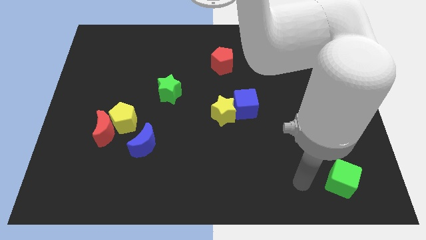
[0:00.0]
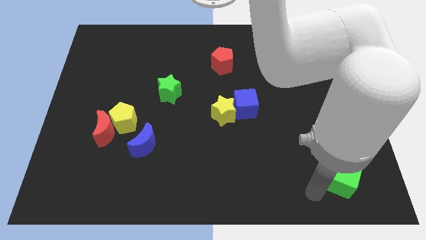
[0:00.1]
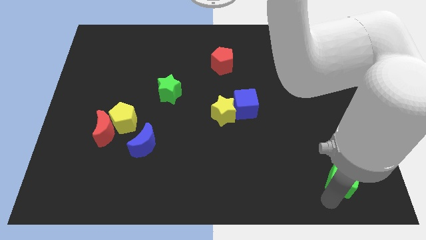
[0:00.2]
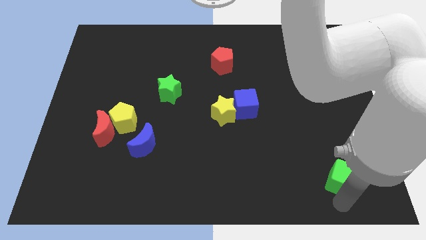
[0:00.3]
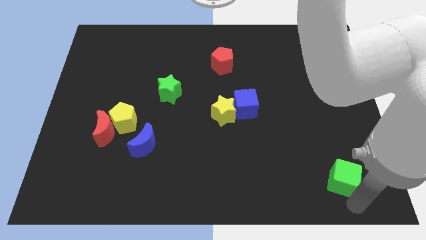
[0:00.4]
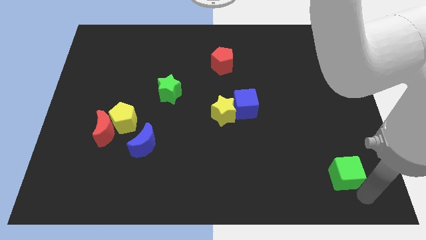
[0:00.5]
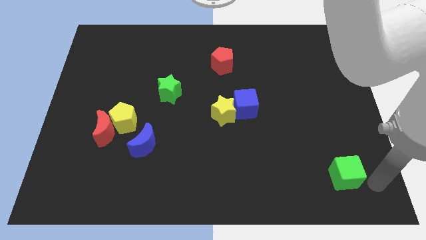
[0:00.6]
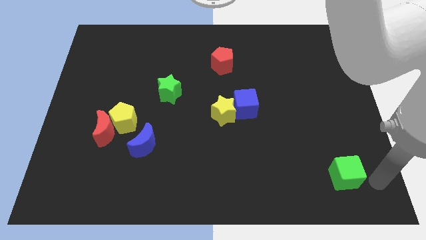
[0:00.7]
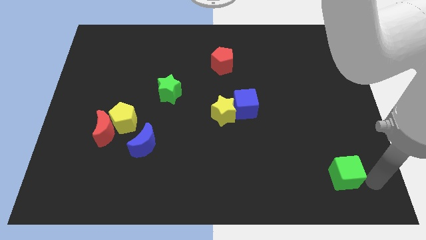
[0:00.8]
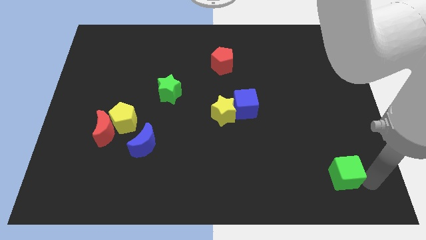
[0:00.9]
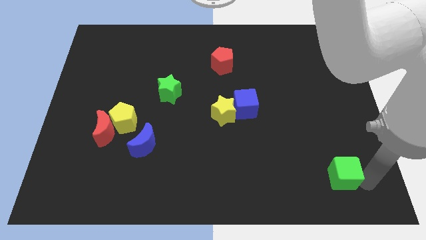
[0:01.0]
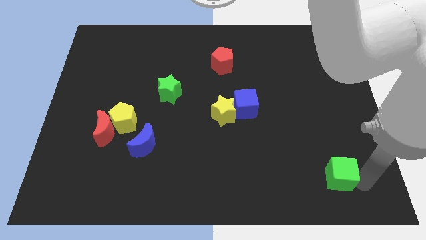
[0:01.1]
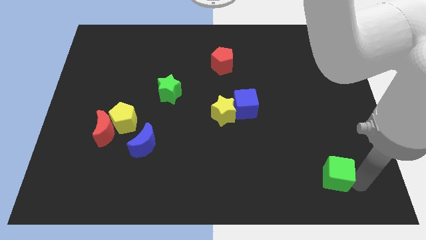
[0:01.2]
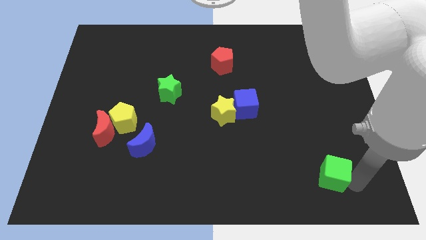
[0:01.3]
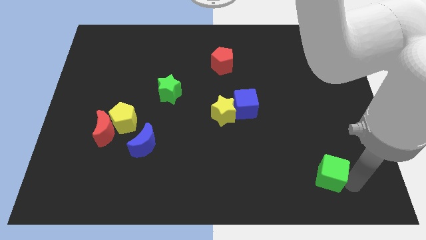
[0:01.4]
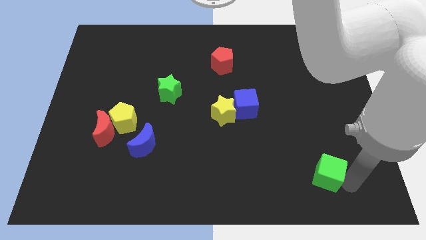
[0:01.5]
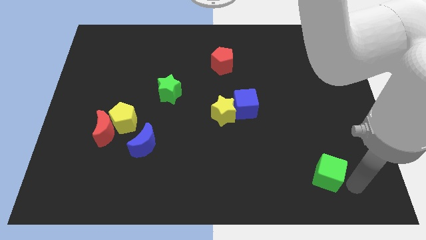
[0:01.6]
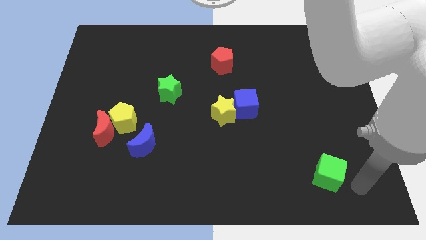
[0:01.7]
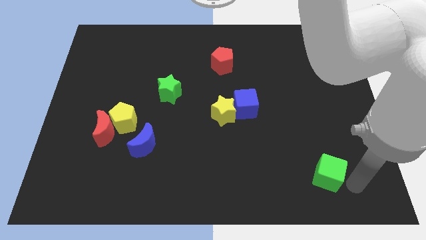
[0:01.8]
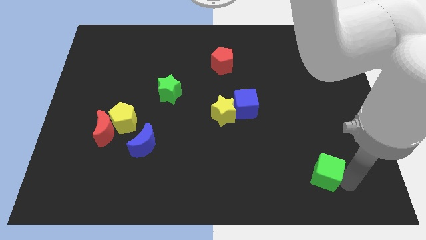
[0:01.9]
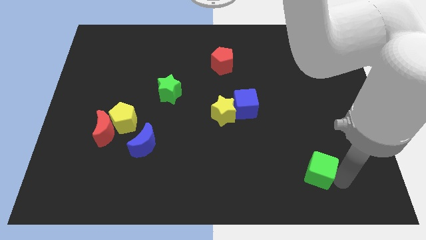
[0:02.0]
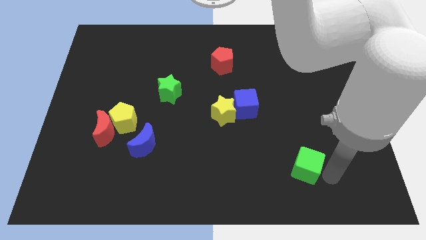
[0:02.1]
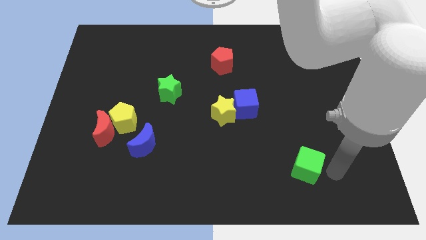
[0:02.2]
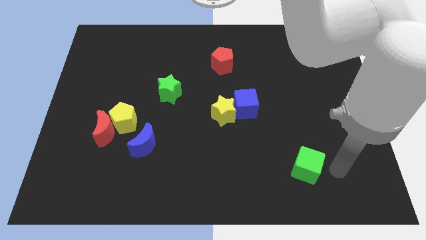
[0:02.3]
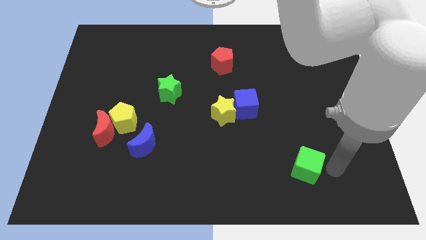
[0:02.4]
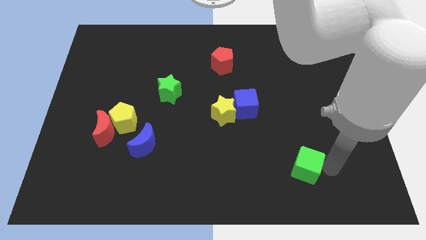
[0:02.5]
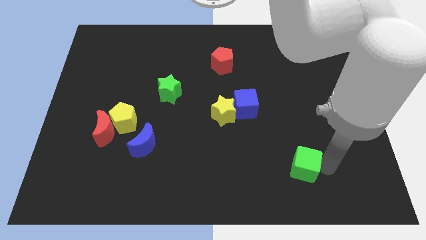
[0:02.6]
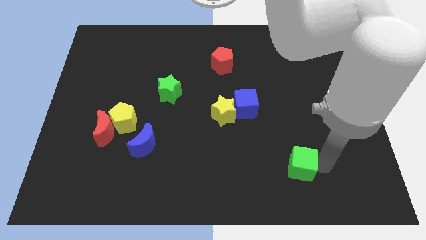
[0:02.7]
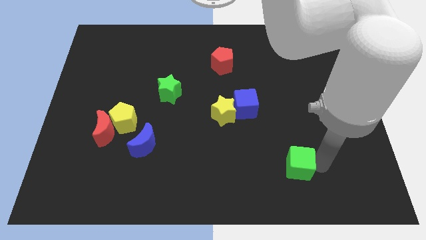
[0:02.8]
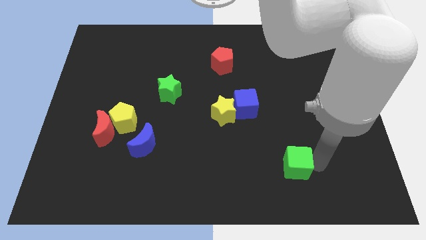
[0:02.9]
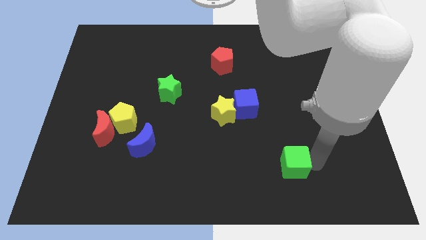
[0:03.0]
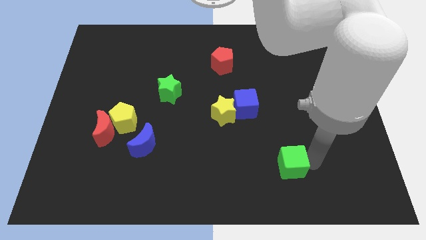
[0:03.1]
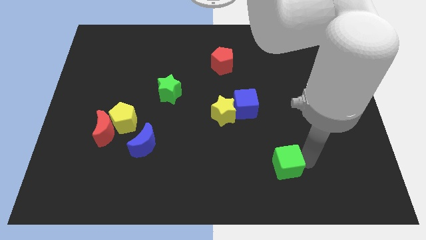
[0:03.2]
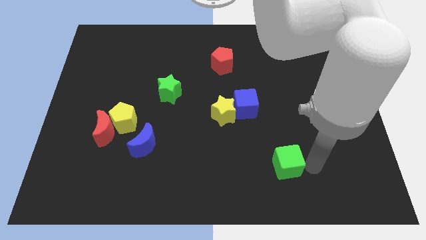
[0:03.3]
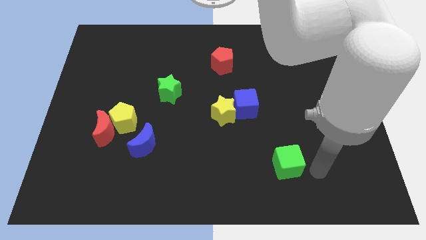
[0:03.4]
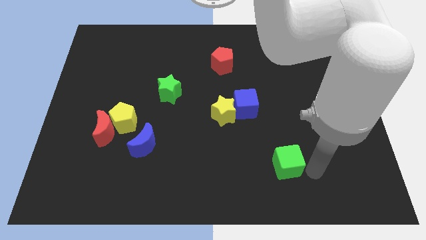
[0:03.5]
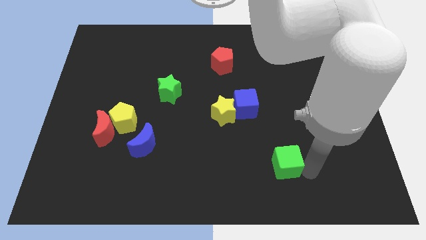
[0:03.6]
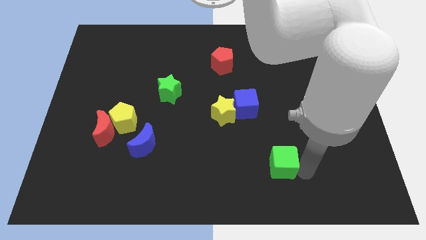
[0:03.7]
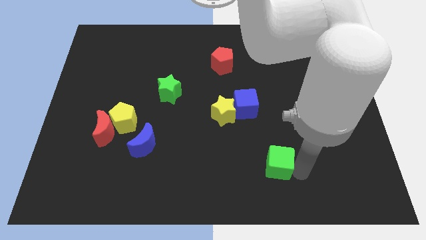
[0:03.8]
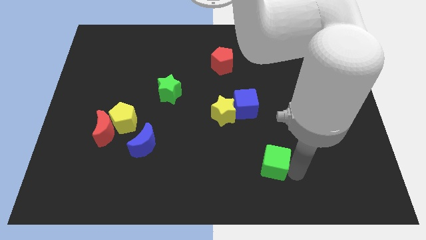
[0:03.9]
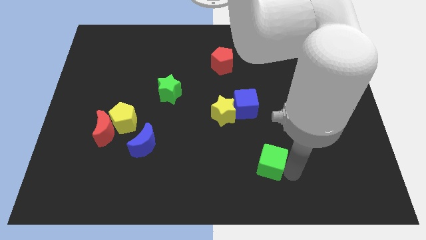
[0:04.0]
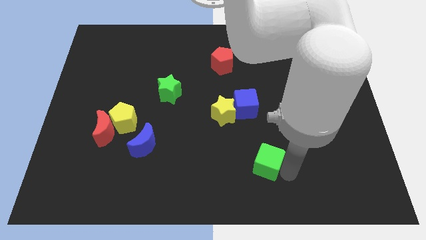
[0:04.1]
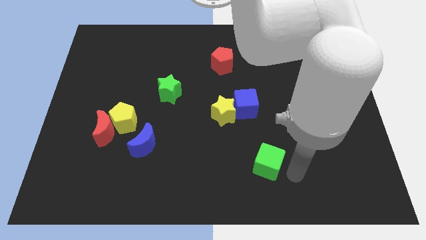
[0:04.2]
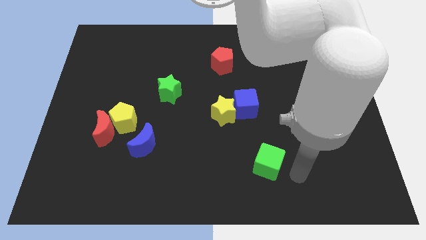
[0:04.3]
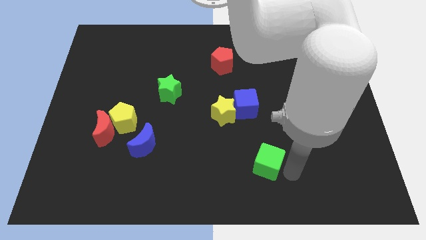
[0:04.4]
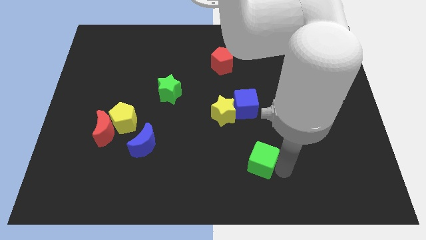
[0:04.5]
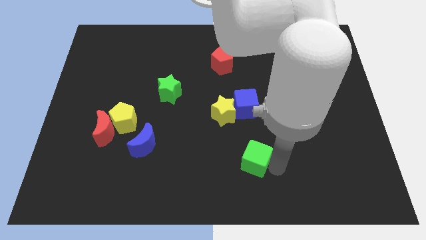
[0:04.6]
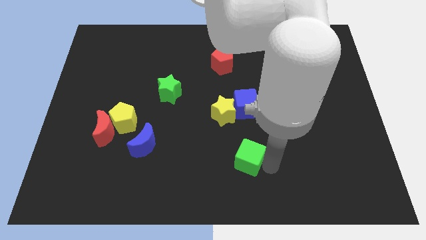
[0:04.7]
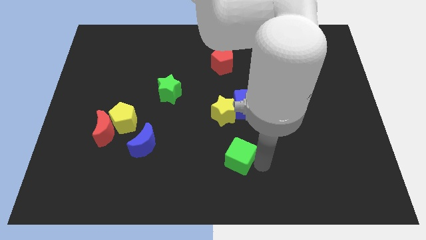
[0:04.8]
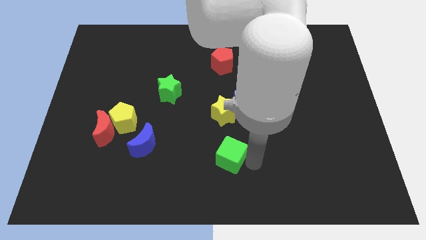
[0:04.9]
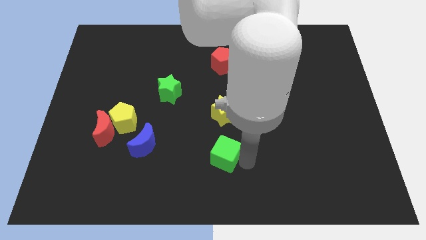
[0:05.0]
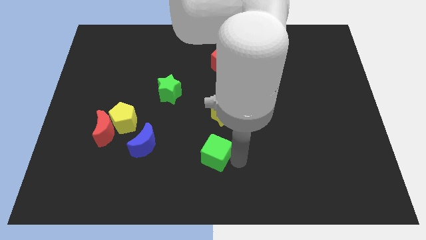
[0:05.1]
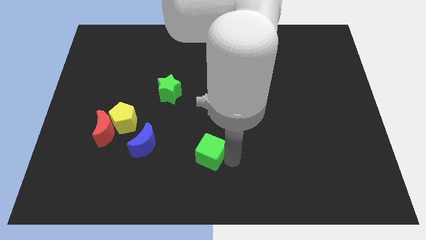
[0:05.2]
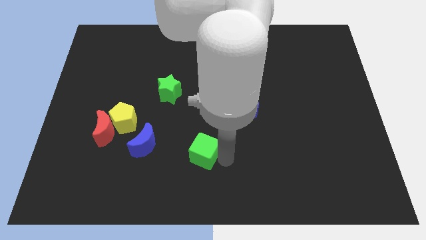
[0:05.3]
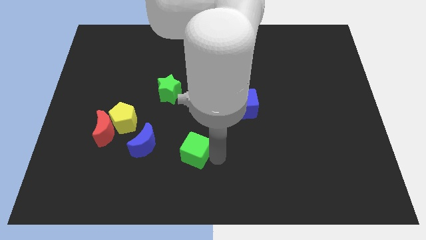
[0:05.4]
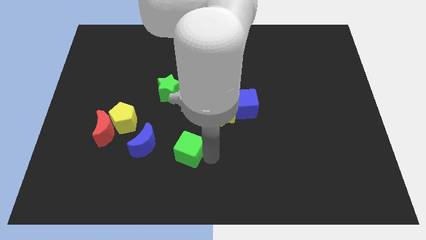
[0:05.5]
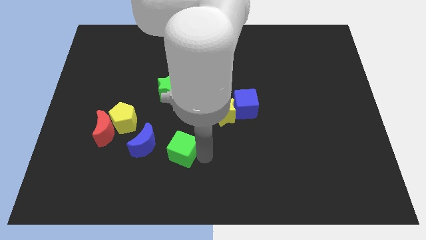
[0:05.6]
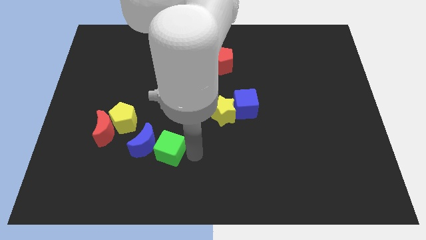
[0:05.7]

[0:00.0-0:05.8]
put the green cube close to the blue moon

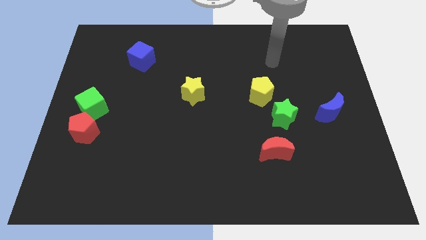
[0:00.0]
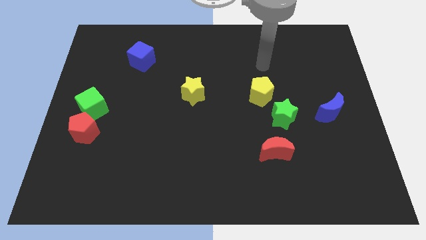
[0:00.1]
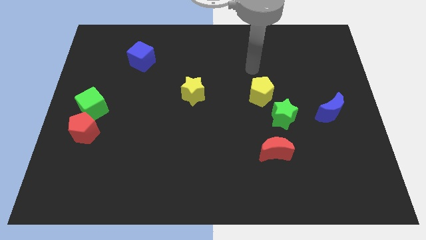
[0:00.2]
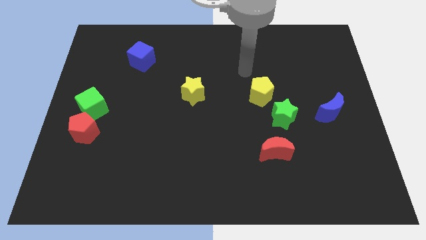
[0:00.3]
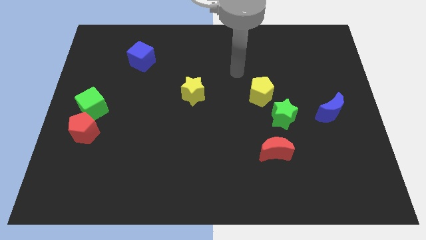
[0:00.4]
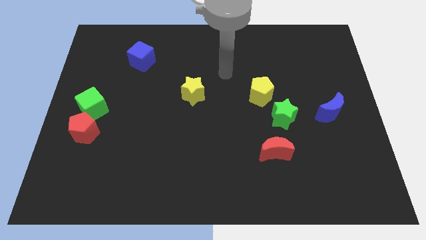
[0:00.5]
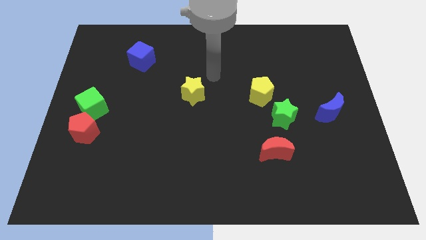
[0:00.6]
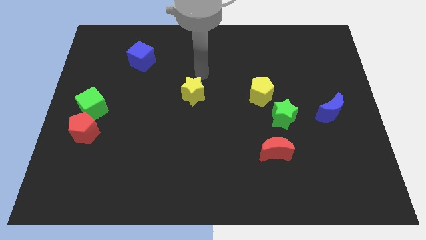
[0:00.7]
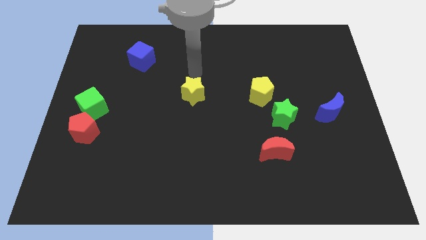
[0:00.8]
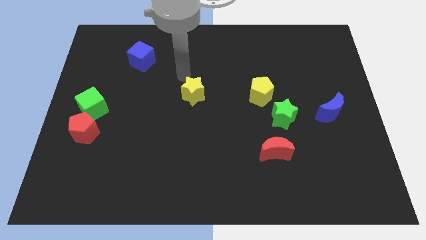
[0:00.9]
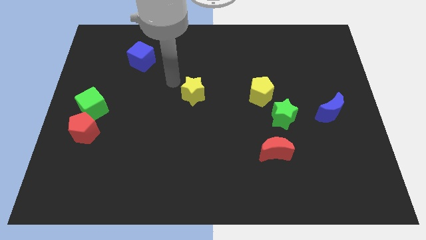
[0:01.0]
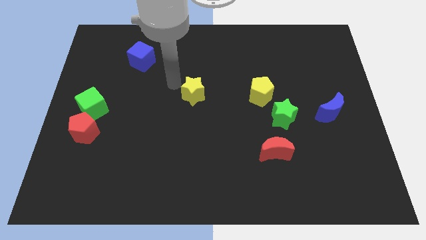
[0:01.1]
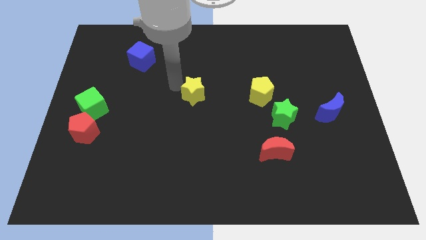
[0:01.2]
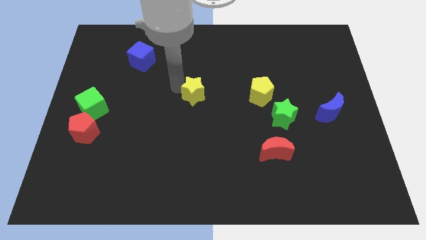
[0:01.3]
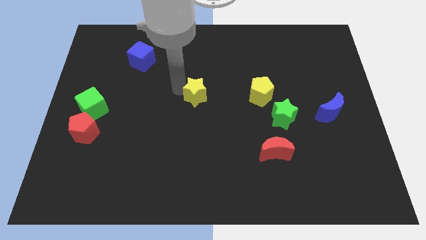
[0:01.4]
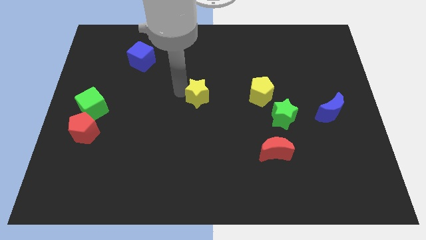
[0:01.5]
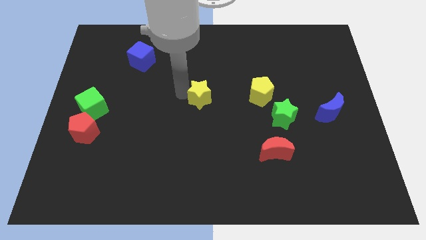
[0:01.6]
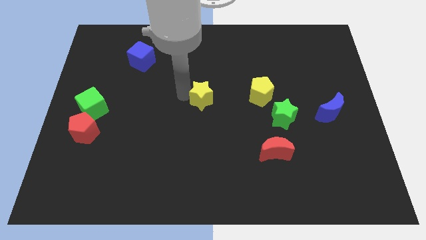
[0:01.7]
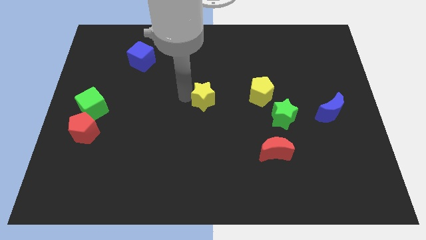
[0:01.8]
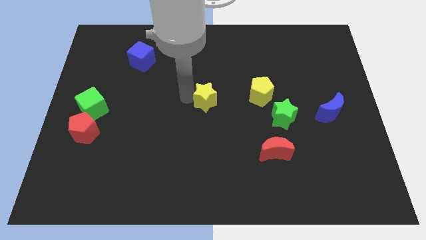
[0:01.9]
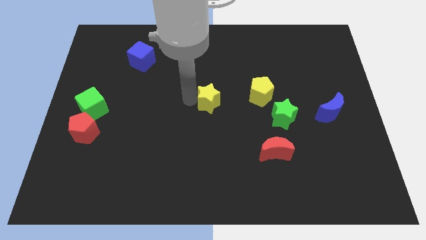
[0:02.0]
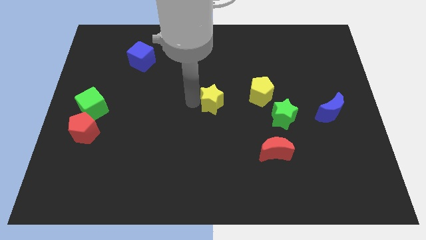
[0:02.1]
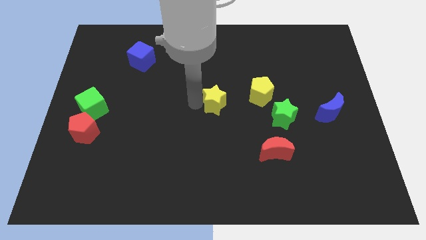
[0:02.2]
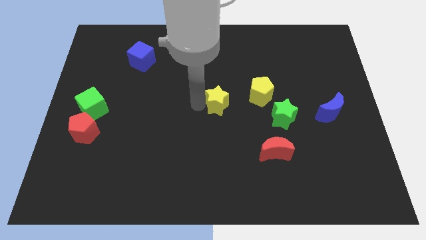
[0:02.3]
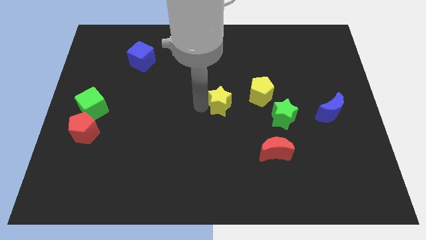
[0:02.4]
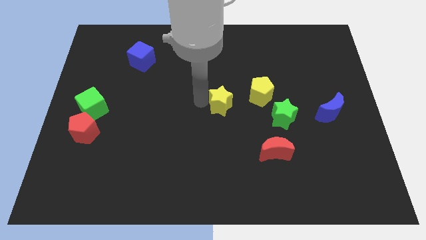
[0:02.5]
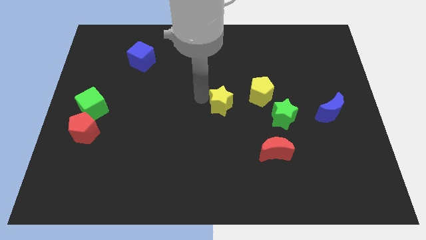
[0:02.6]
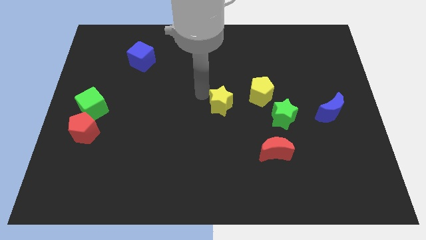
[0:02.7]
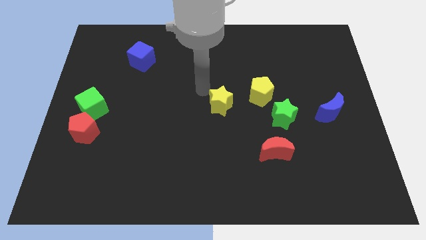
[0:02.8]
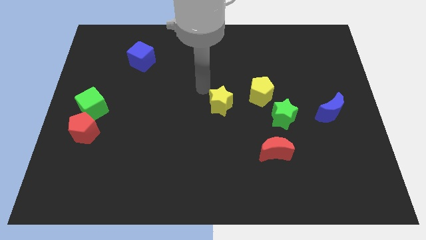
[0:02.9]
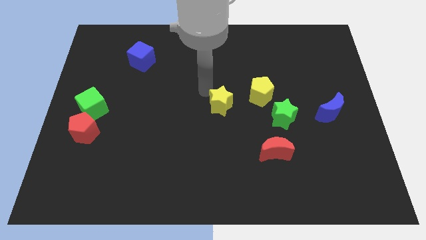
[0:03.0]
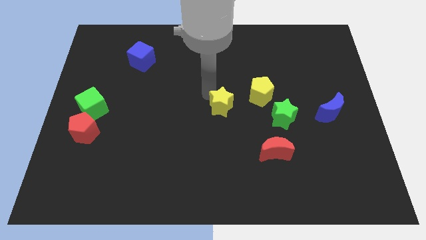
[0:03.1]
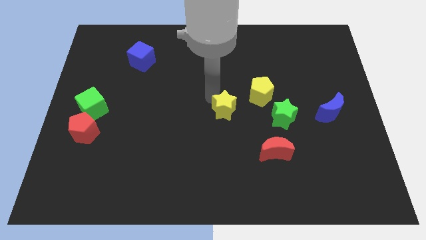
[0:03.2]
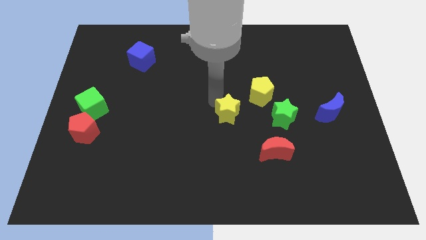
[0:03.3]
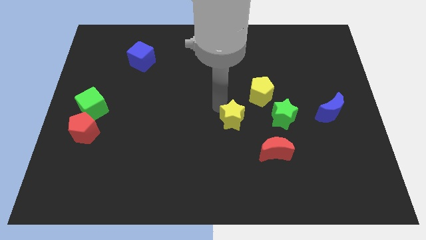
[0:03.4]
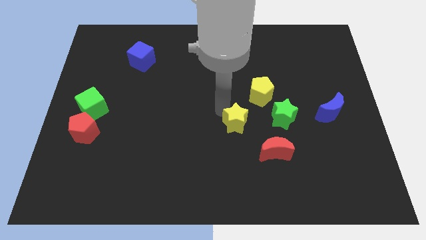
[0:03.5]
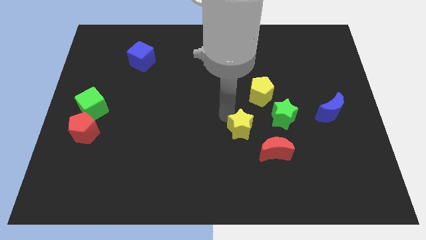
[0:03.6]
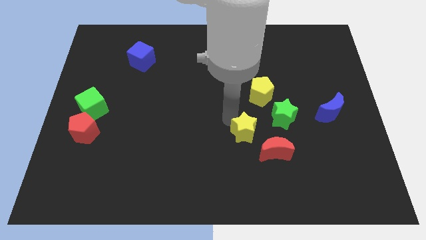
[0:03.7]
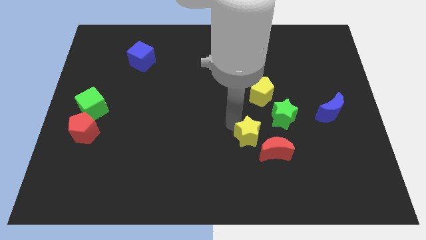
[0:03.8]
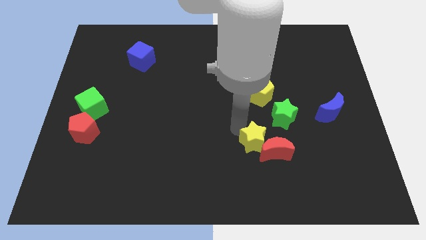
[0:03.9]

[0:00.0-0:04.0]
push the yellow star to the red moon
